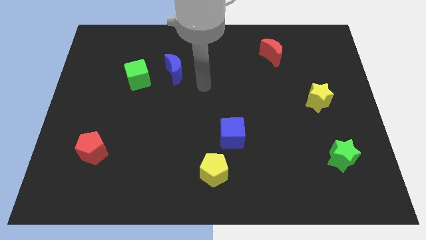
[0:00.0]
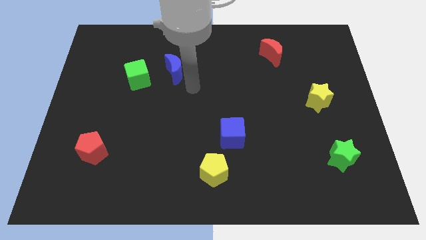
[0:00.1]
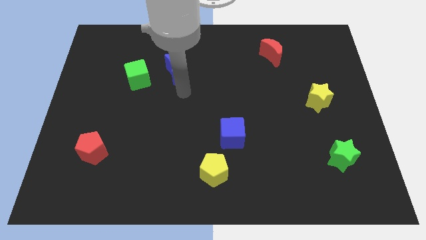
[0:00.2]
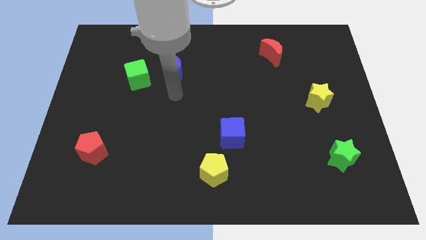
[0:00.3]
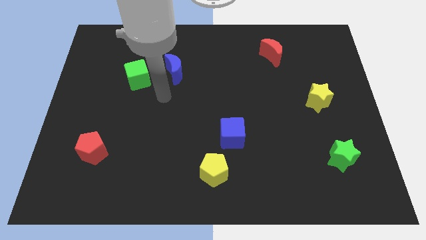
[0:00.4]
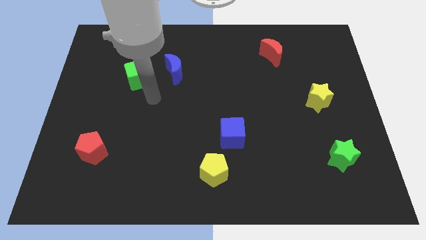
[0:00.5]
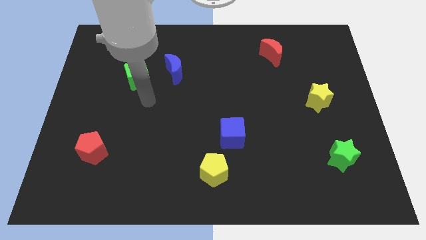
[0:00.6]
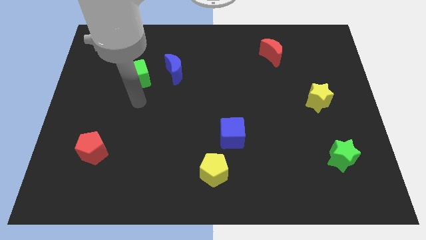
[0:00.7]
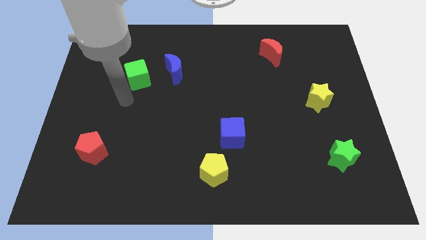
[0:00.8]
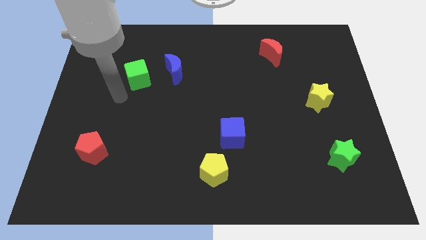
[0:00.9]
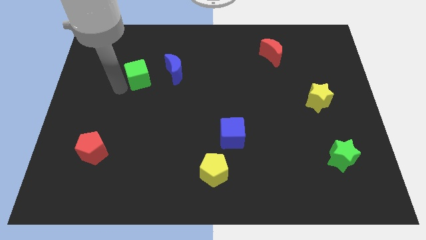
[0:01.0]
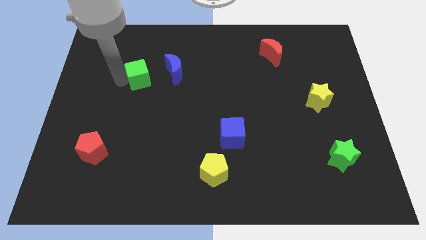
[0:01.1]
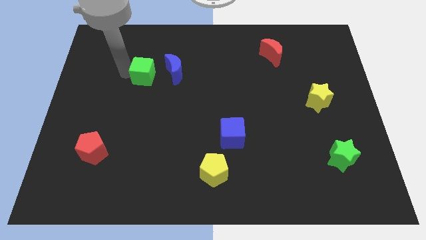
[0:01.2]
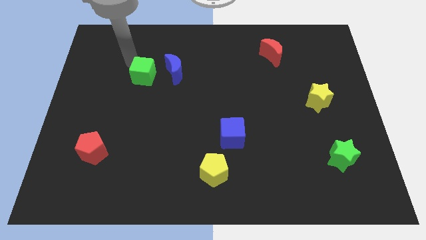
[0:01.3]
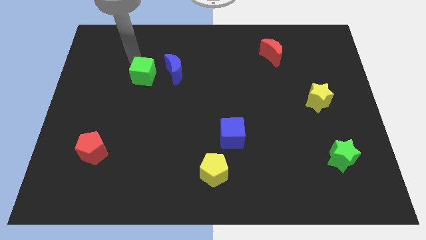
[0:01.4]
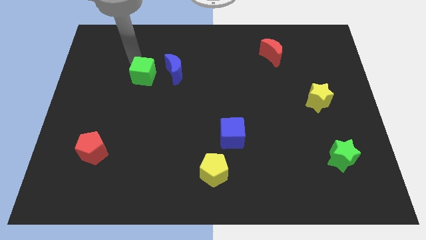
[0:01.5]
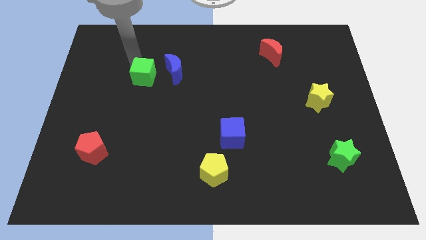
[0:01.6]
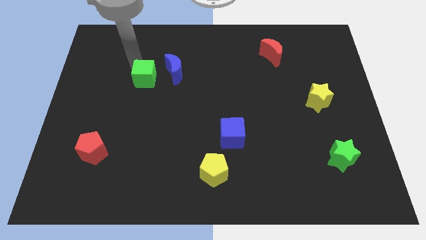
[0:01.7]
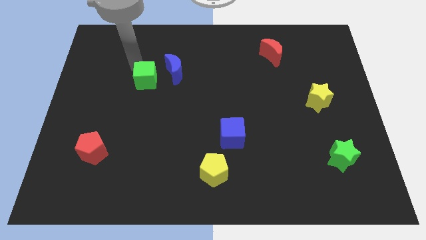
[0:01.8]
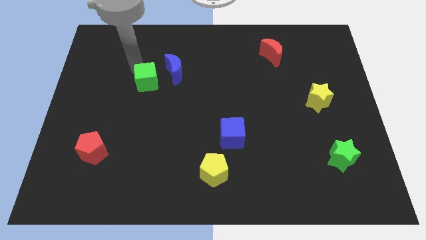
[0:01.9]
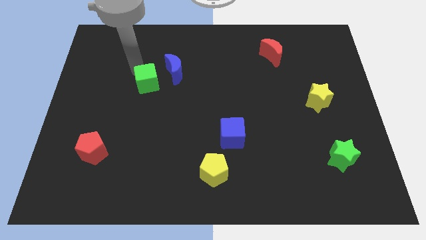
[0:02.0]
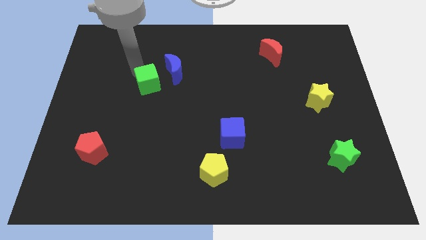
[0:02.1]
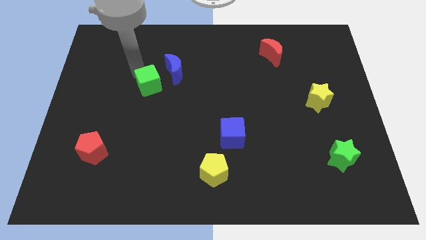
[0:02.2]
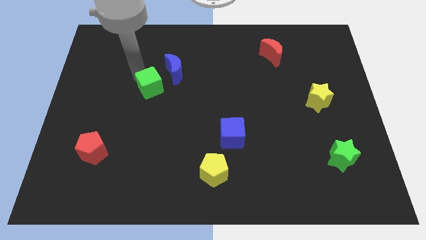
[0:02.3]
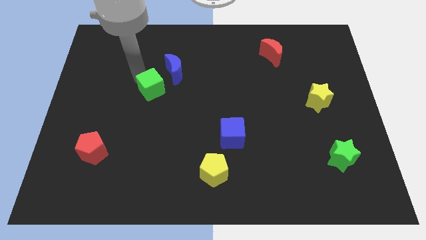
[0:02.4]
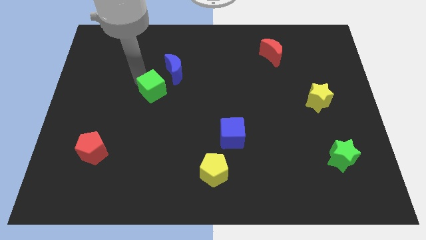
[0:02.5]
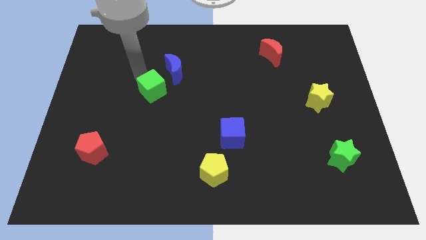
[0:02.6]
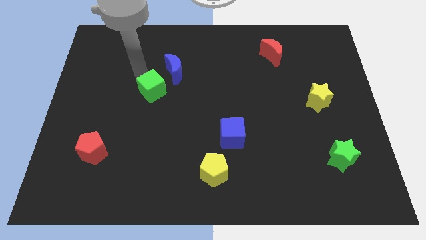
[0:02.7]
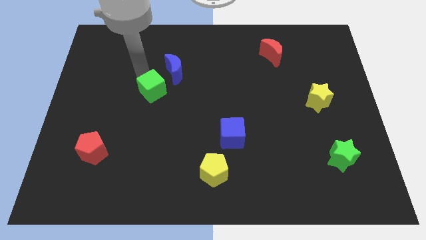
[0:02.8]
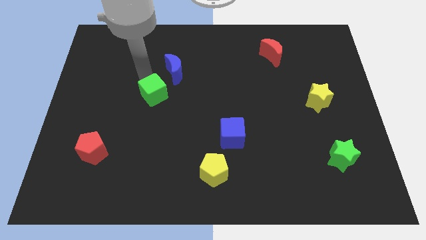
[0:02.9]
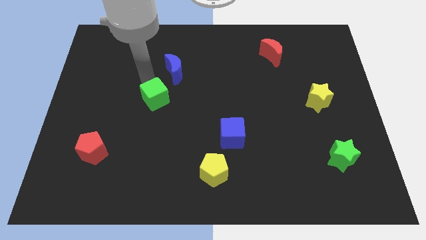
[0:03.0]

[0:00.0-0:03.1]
slide the green cube somewhat diagonally downwards and to the right

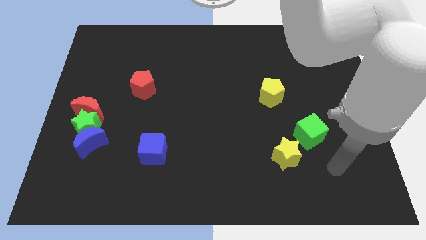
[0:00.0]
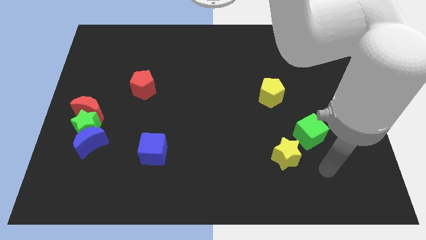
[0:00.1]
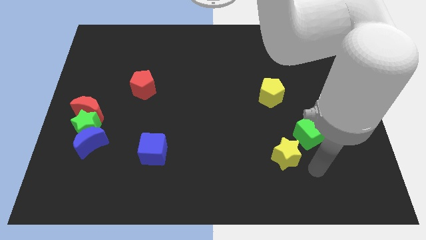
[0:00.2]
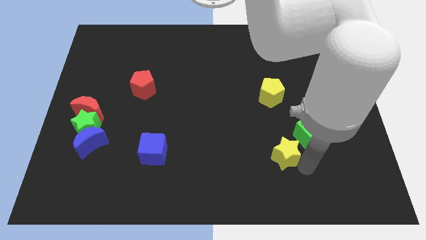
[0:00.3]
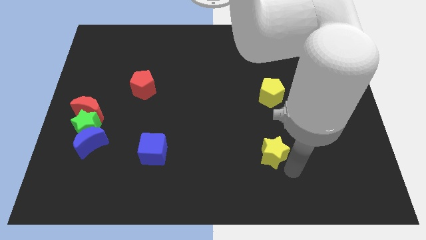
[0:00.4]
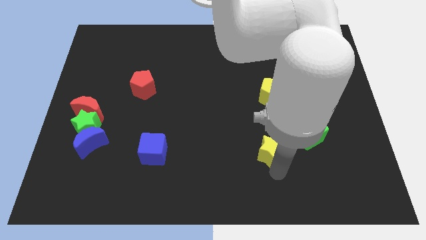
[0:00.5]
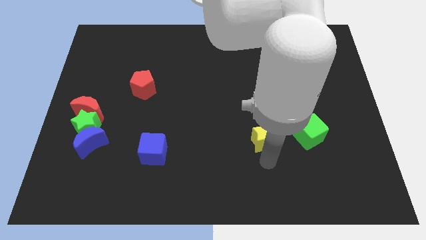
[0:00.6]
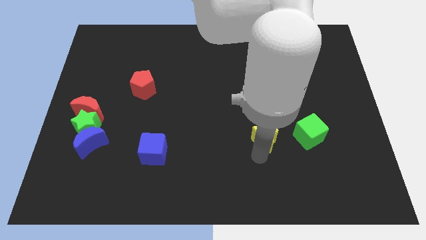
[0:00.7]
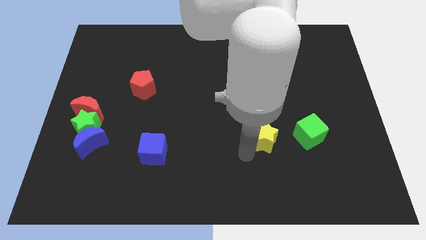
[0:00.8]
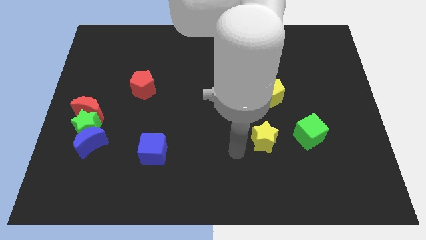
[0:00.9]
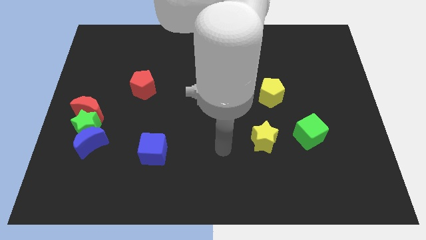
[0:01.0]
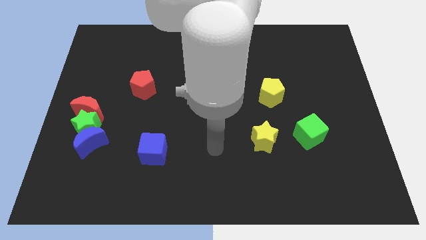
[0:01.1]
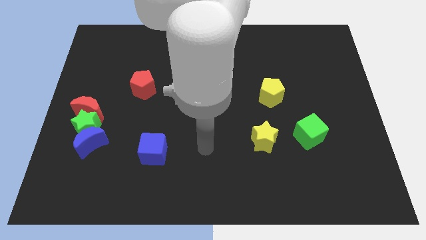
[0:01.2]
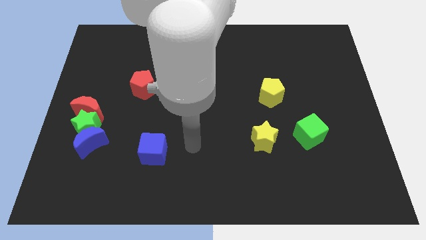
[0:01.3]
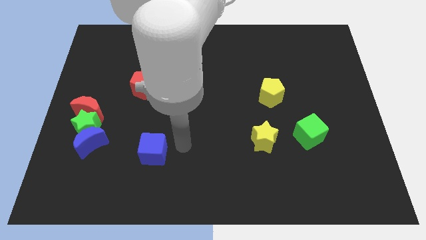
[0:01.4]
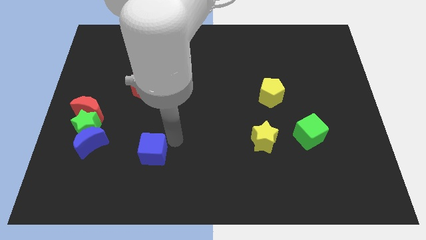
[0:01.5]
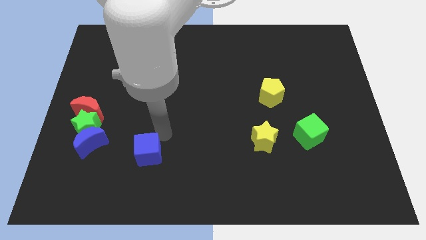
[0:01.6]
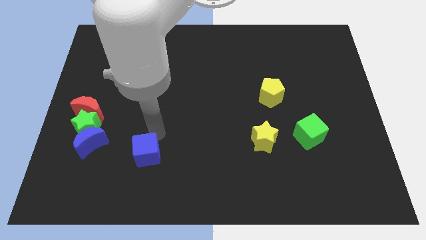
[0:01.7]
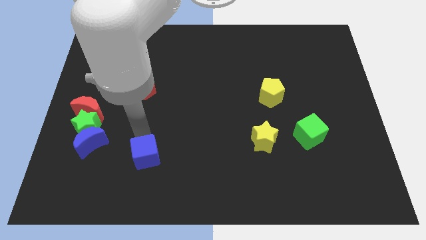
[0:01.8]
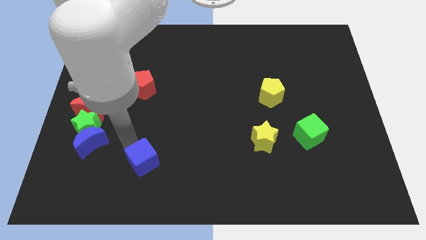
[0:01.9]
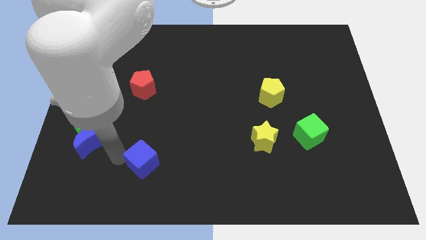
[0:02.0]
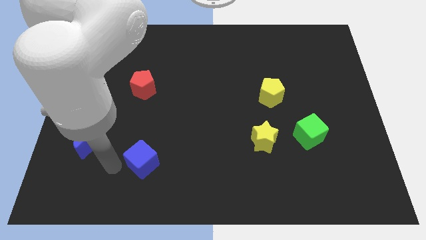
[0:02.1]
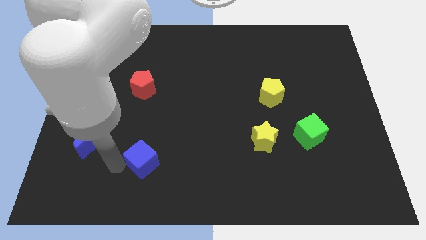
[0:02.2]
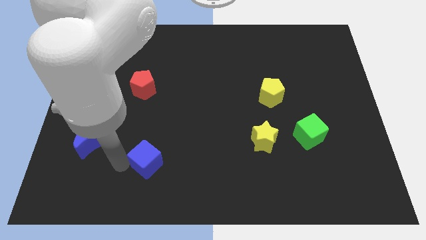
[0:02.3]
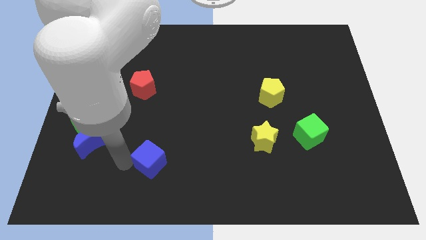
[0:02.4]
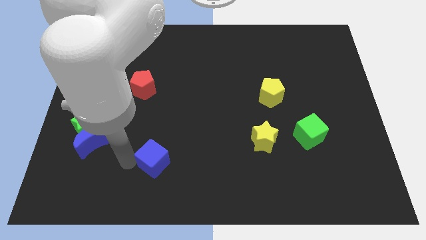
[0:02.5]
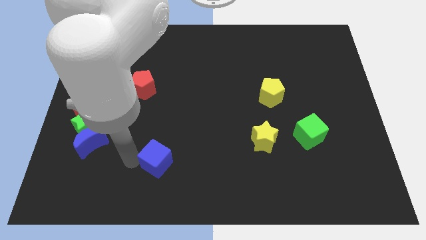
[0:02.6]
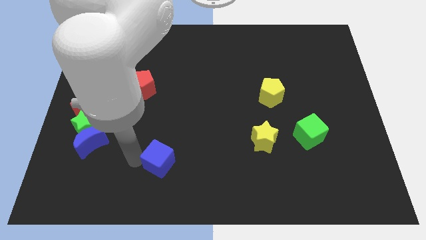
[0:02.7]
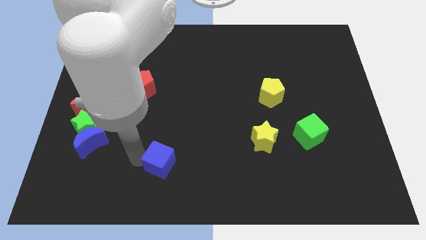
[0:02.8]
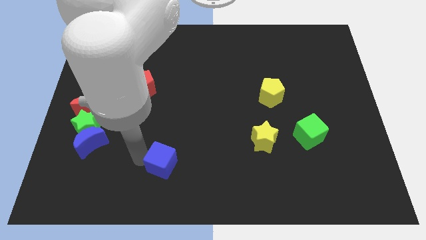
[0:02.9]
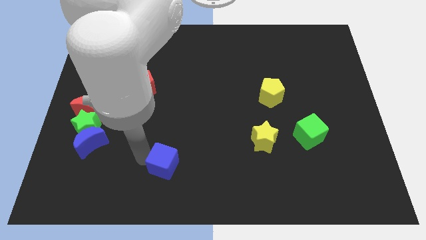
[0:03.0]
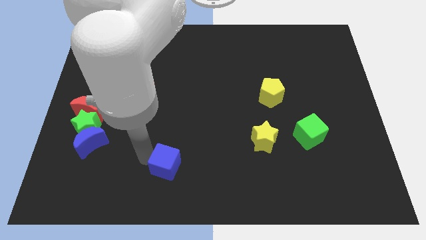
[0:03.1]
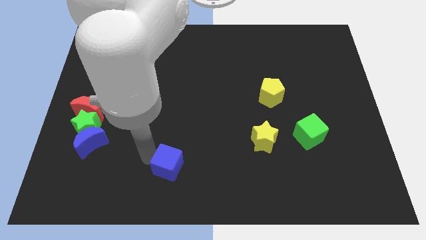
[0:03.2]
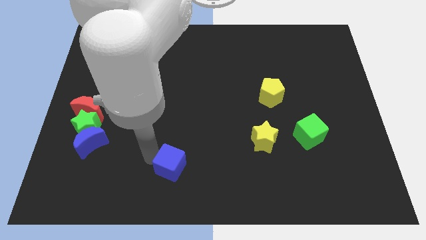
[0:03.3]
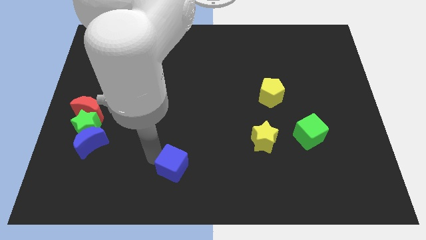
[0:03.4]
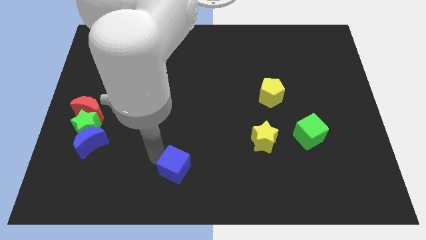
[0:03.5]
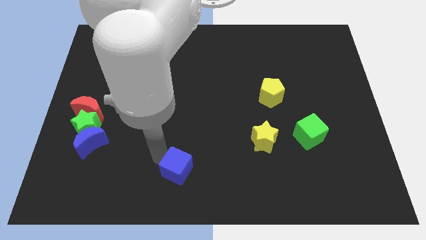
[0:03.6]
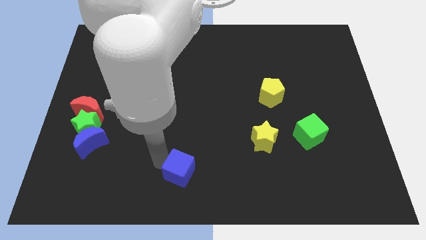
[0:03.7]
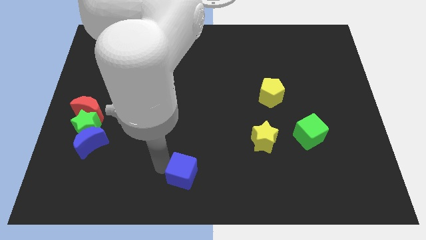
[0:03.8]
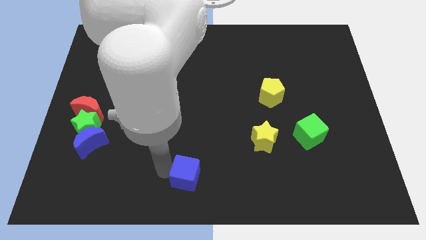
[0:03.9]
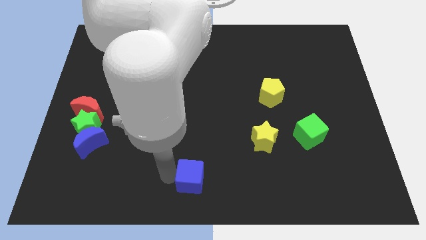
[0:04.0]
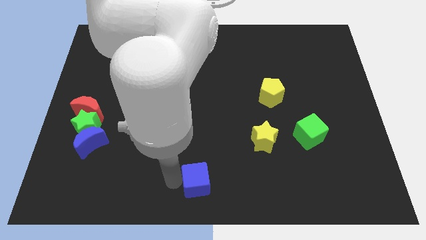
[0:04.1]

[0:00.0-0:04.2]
push the blue cube a little bit to the right

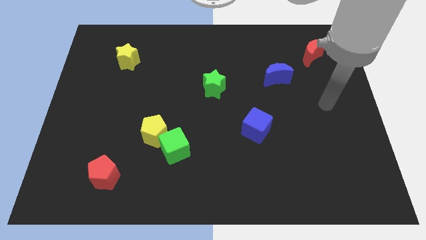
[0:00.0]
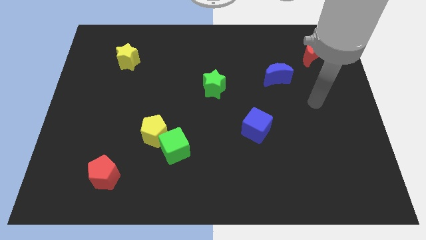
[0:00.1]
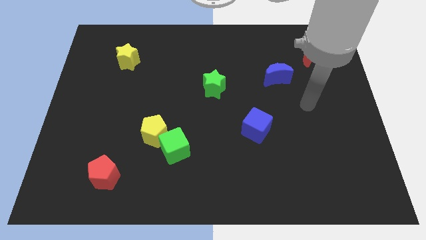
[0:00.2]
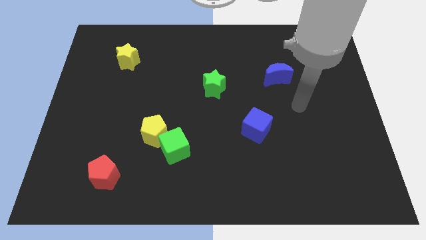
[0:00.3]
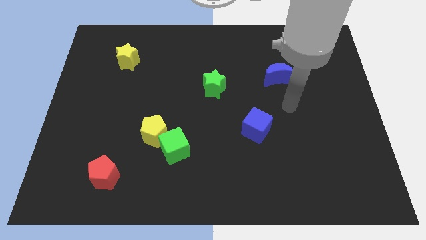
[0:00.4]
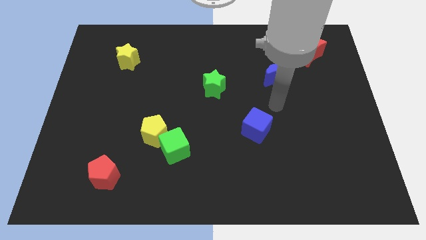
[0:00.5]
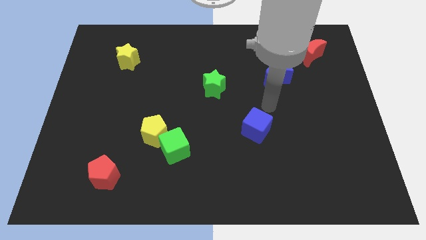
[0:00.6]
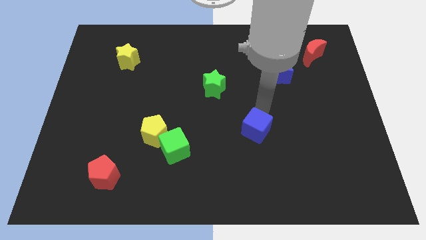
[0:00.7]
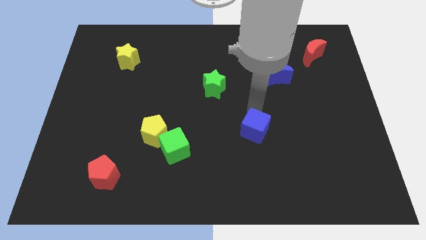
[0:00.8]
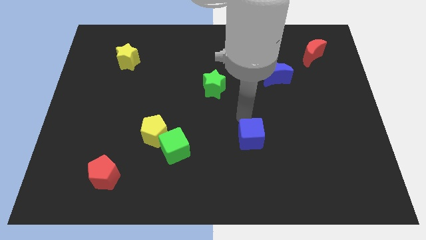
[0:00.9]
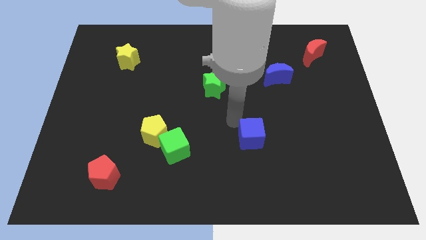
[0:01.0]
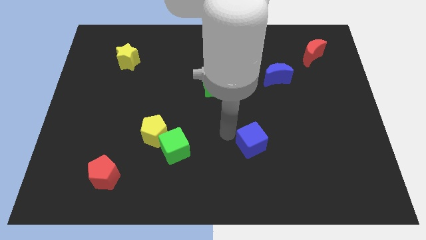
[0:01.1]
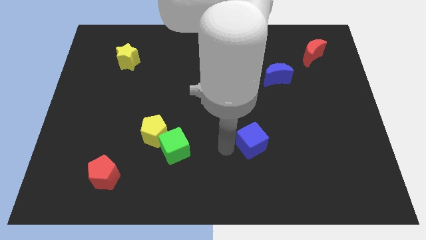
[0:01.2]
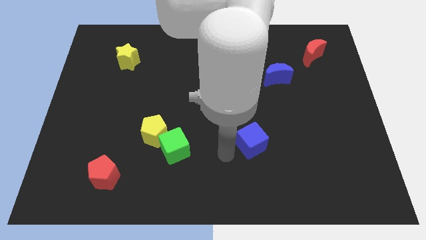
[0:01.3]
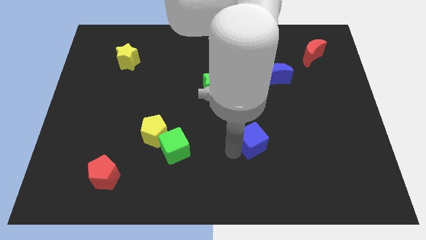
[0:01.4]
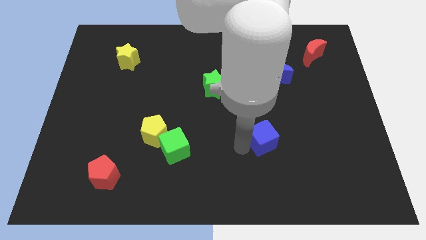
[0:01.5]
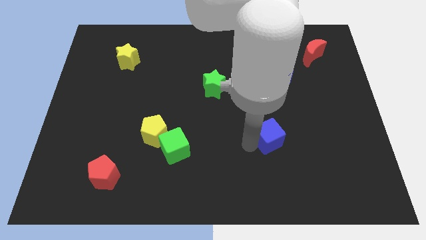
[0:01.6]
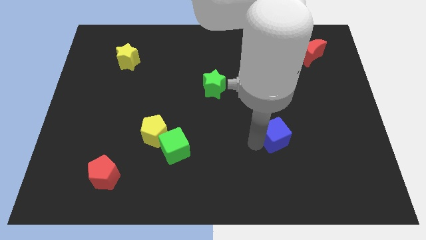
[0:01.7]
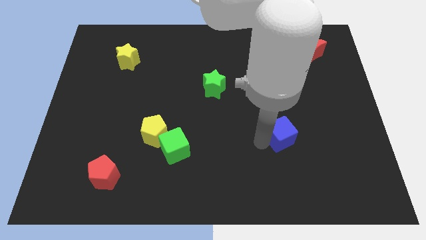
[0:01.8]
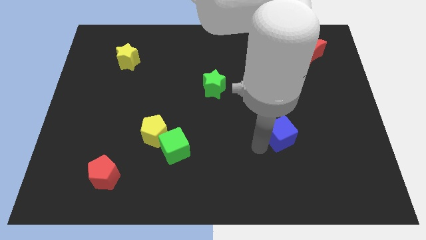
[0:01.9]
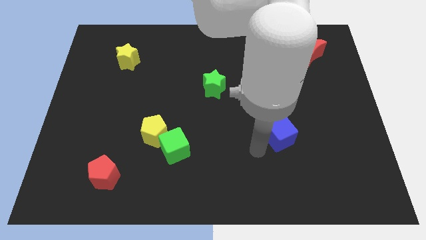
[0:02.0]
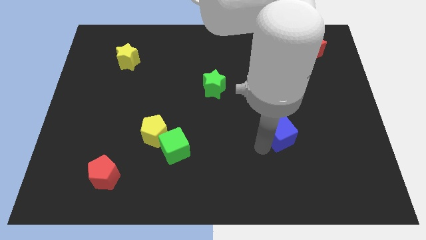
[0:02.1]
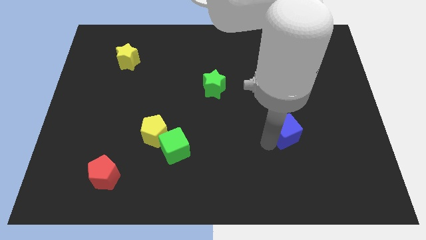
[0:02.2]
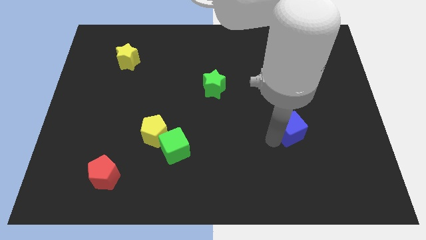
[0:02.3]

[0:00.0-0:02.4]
slide the blue cube somewhat to the right
